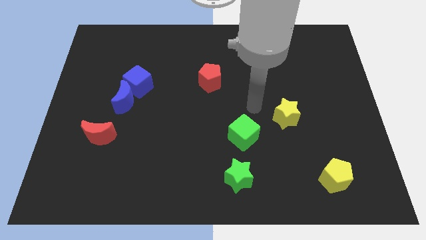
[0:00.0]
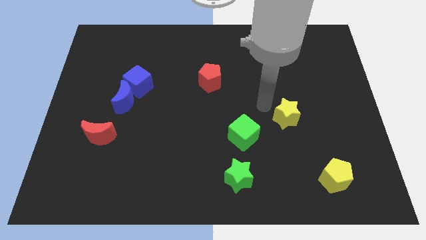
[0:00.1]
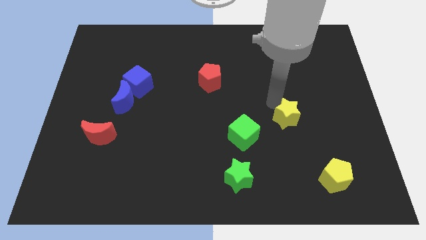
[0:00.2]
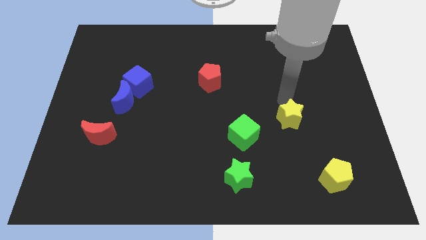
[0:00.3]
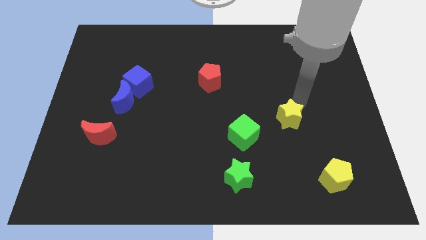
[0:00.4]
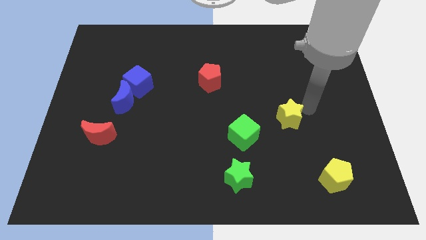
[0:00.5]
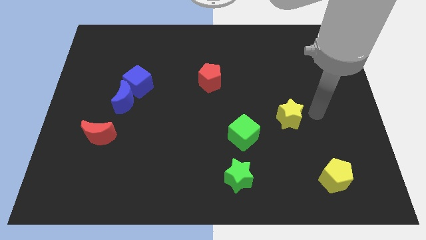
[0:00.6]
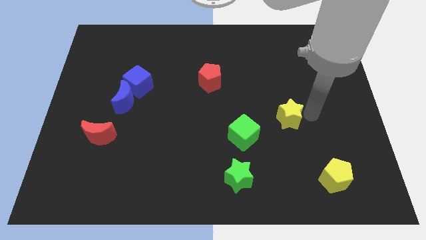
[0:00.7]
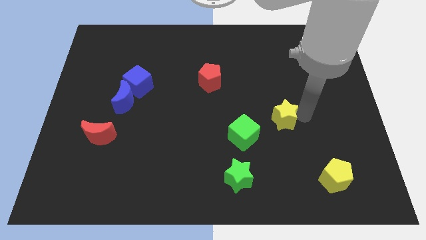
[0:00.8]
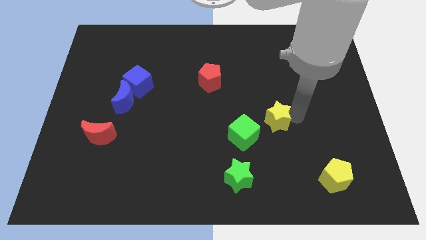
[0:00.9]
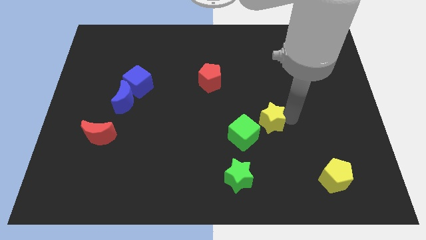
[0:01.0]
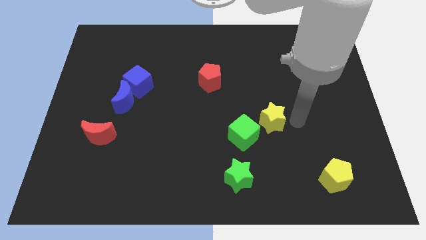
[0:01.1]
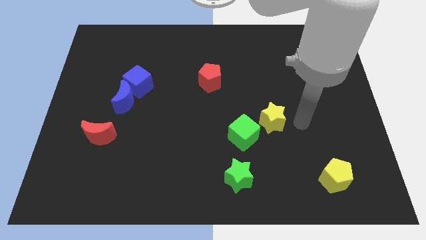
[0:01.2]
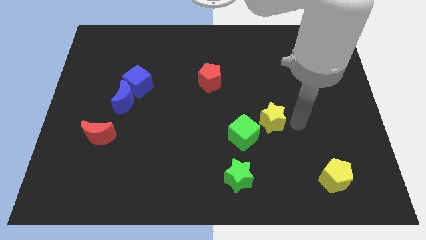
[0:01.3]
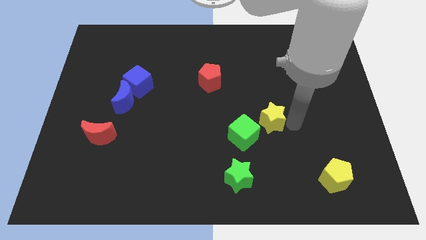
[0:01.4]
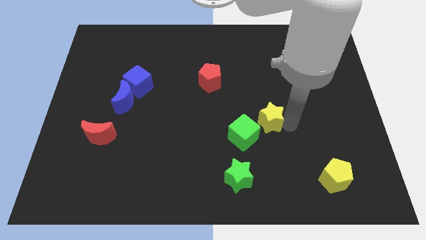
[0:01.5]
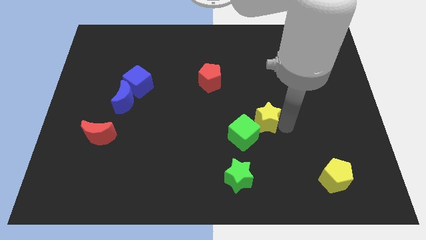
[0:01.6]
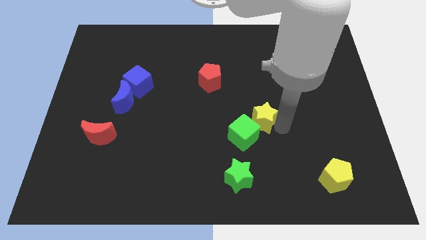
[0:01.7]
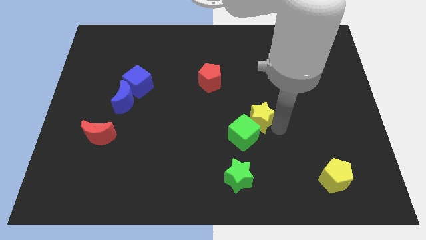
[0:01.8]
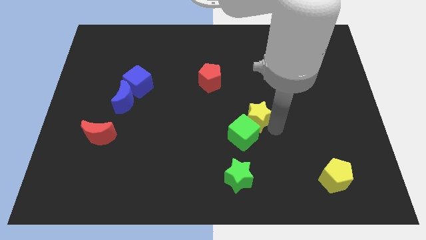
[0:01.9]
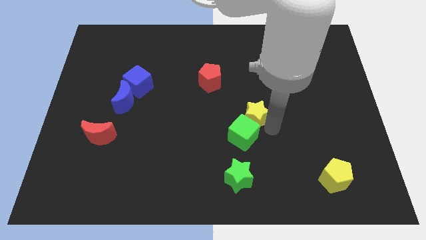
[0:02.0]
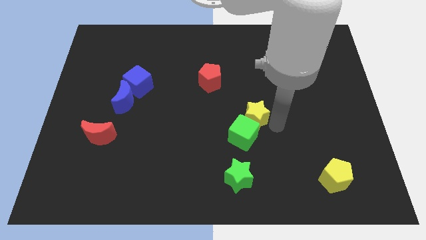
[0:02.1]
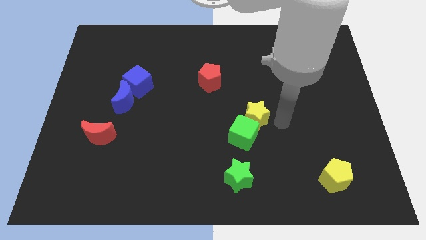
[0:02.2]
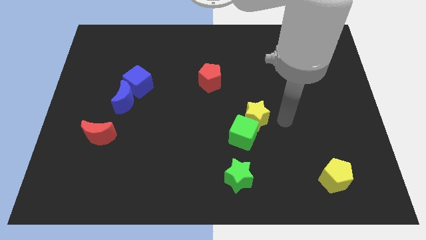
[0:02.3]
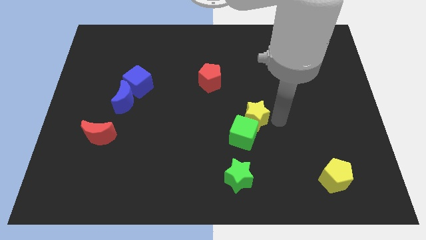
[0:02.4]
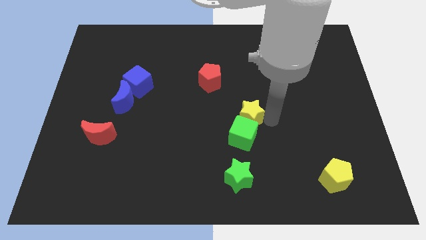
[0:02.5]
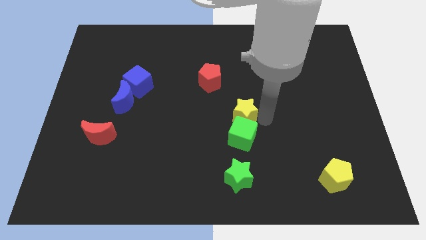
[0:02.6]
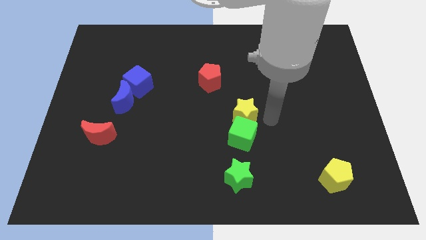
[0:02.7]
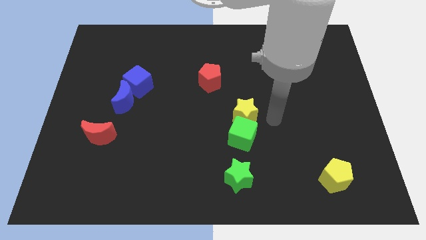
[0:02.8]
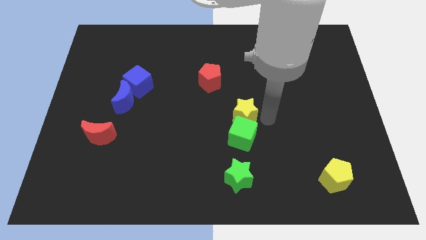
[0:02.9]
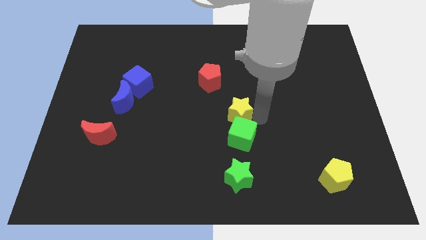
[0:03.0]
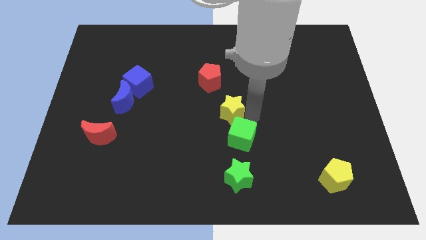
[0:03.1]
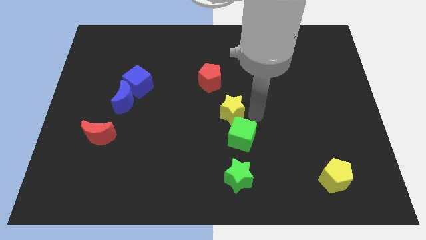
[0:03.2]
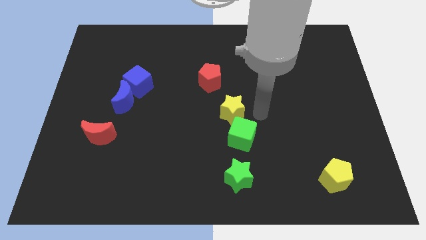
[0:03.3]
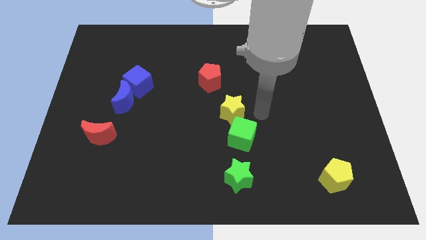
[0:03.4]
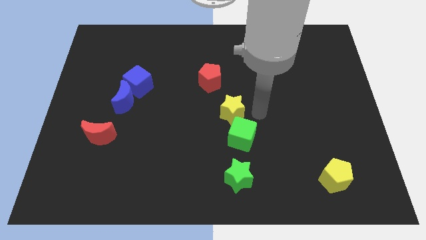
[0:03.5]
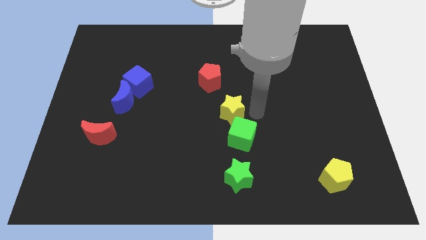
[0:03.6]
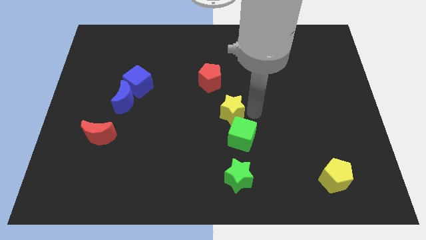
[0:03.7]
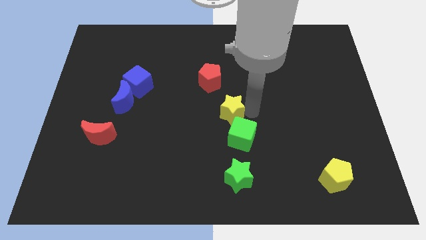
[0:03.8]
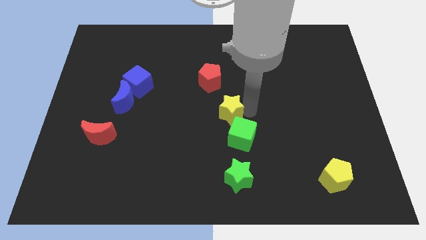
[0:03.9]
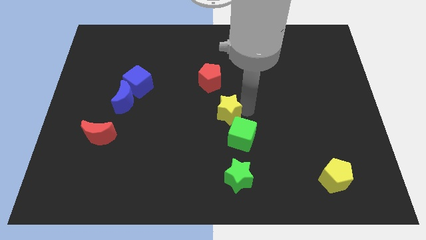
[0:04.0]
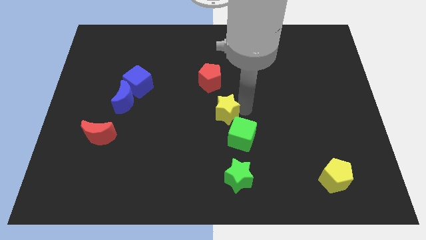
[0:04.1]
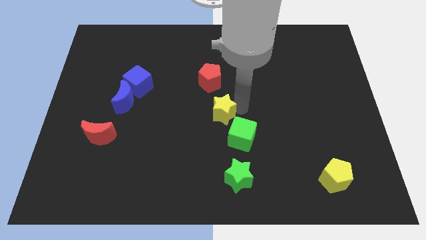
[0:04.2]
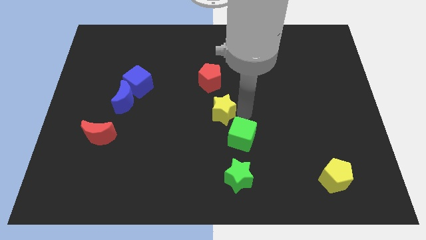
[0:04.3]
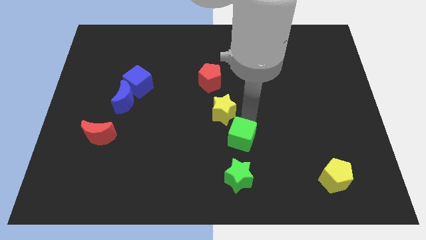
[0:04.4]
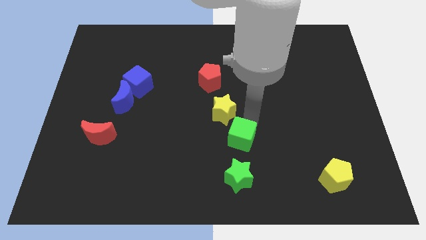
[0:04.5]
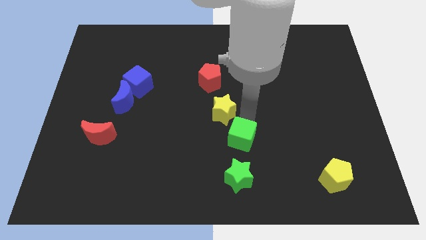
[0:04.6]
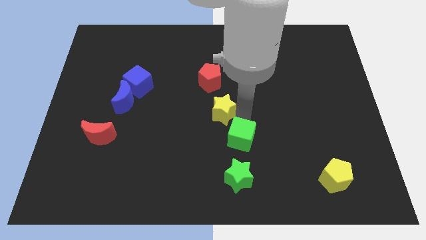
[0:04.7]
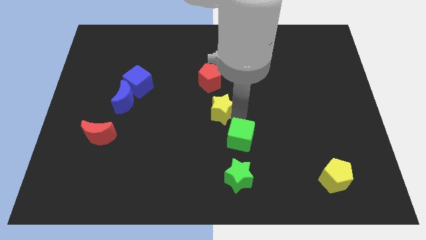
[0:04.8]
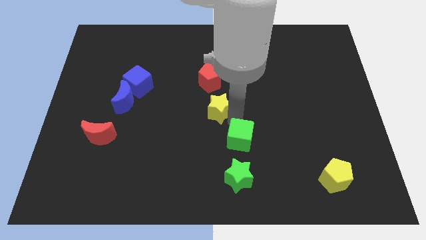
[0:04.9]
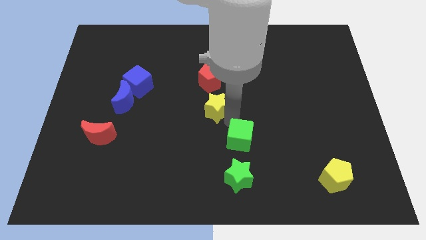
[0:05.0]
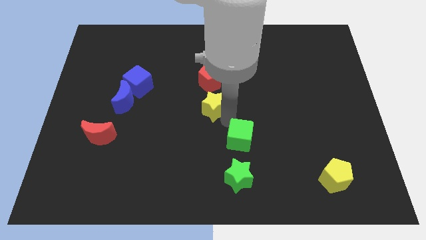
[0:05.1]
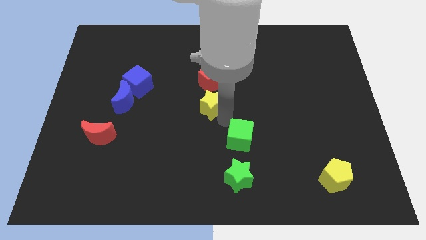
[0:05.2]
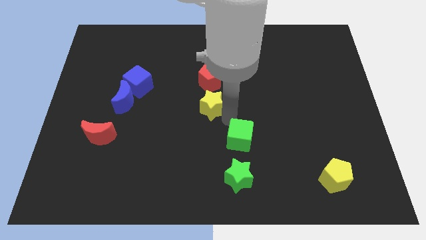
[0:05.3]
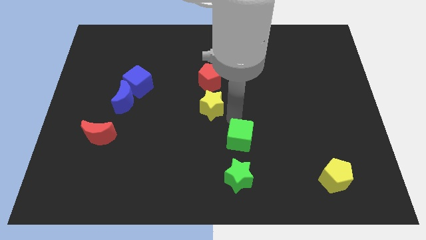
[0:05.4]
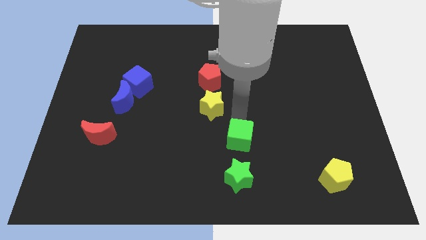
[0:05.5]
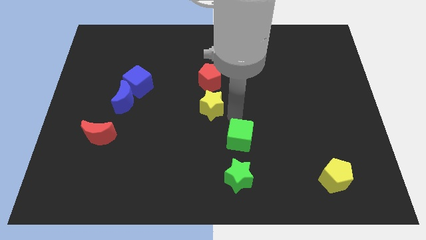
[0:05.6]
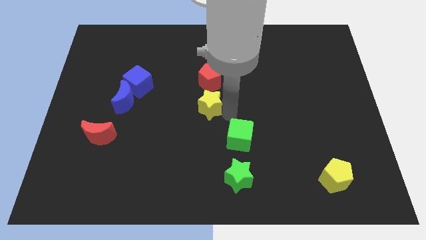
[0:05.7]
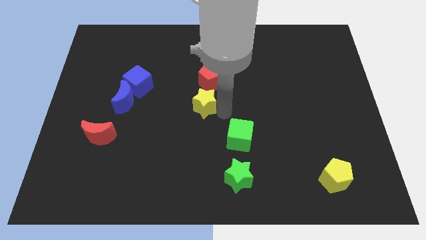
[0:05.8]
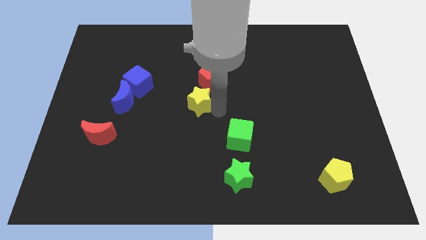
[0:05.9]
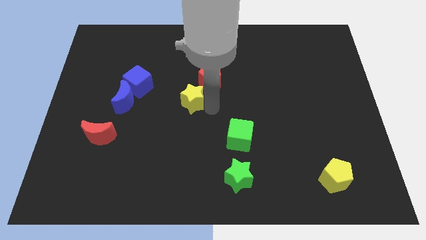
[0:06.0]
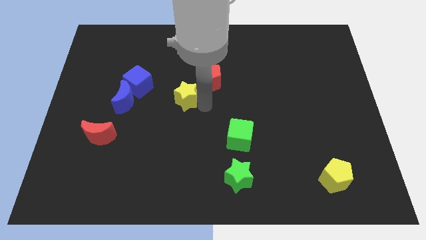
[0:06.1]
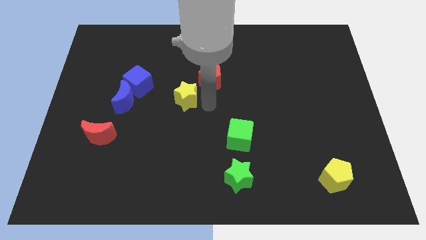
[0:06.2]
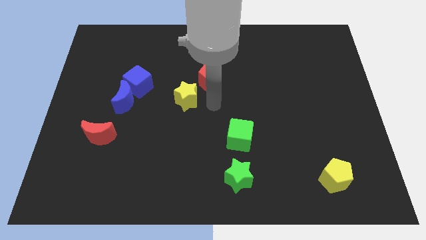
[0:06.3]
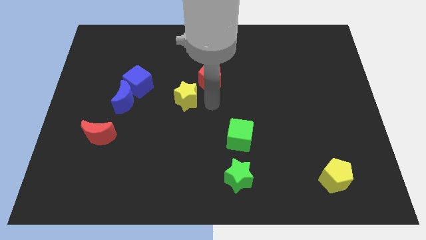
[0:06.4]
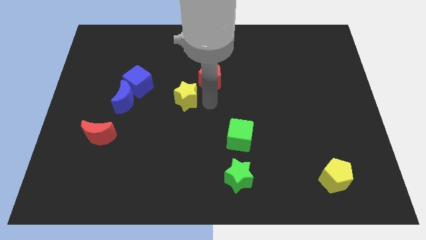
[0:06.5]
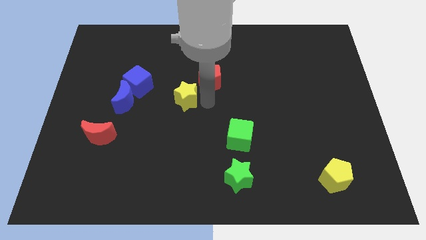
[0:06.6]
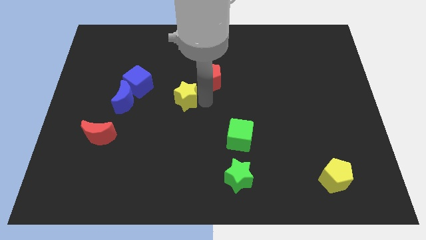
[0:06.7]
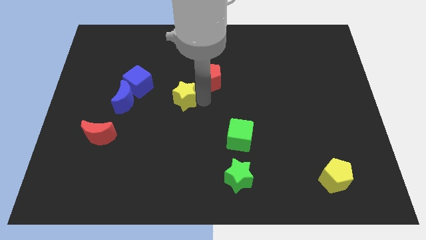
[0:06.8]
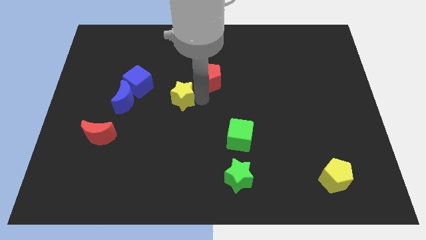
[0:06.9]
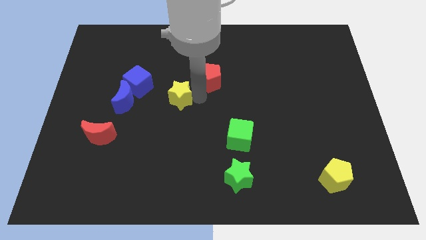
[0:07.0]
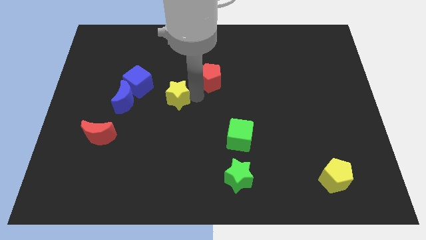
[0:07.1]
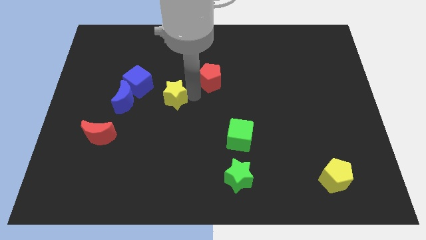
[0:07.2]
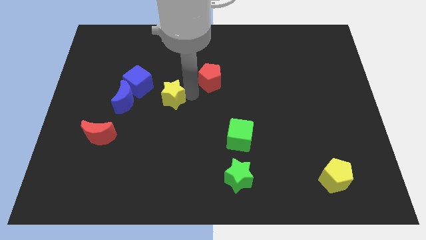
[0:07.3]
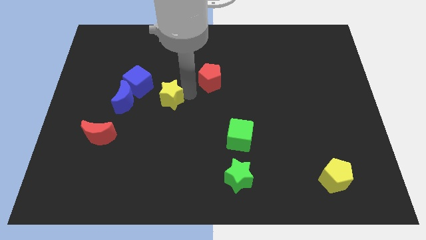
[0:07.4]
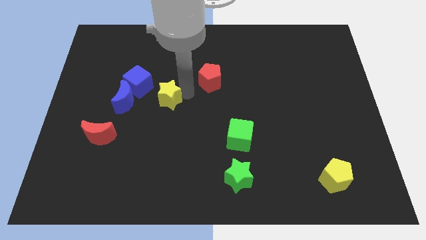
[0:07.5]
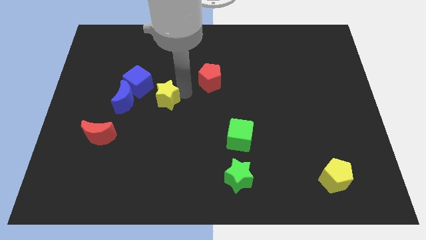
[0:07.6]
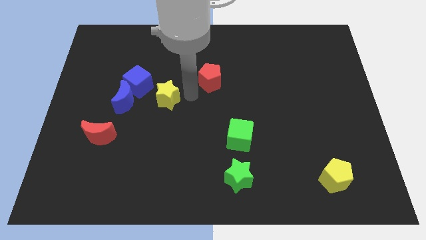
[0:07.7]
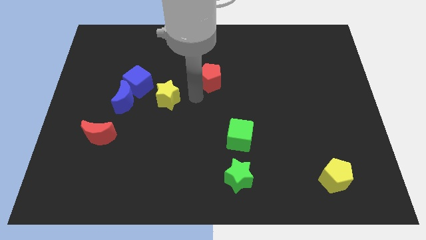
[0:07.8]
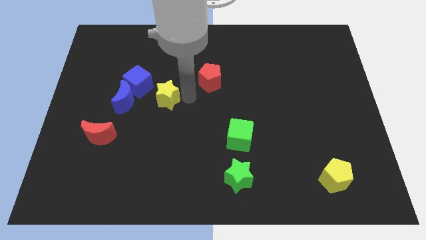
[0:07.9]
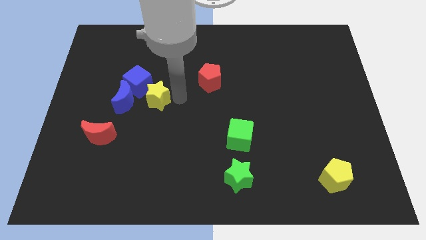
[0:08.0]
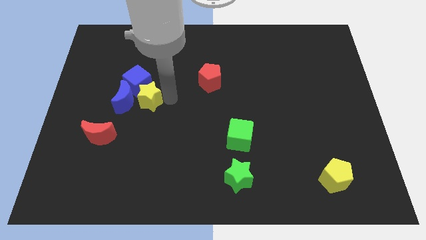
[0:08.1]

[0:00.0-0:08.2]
put the yellow star next to the blue moon
